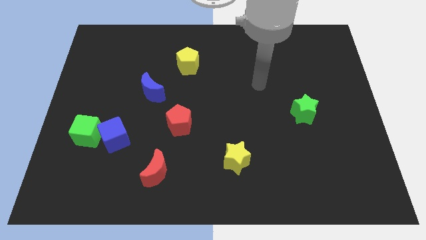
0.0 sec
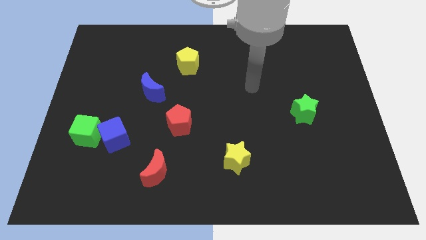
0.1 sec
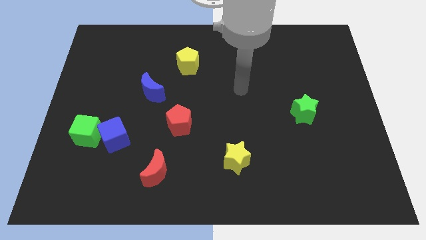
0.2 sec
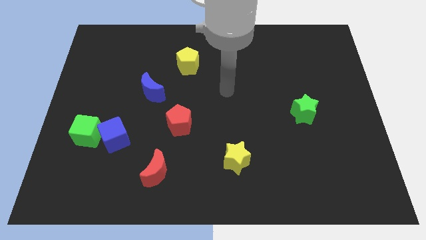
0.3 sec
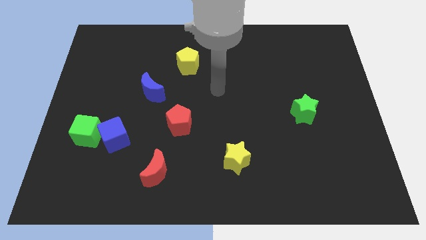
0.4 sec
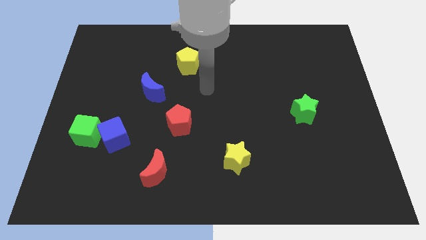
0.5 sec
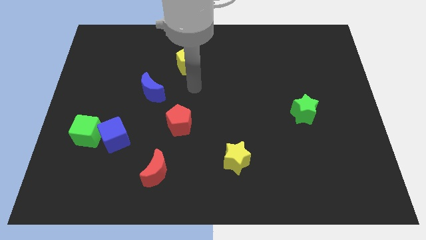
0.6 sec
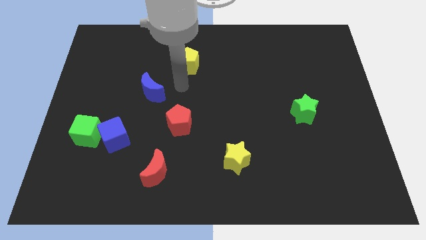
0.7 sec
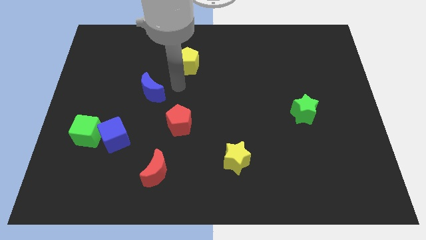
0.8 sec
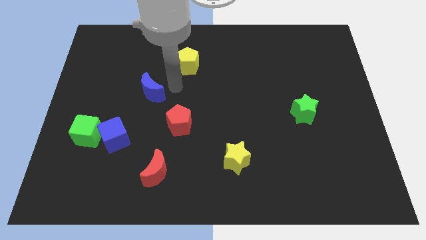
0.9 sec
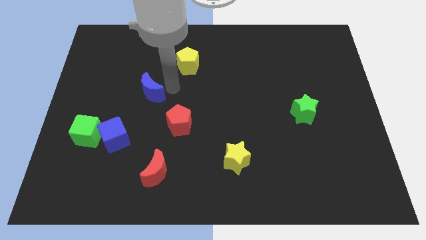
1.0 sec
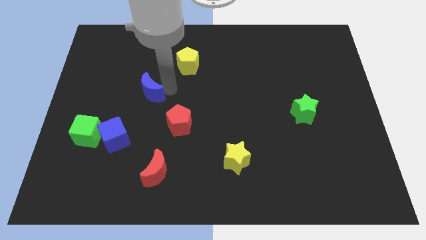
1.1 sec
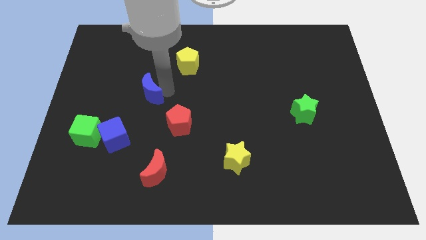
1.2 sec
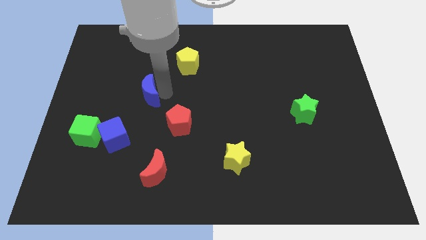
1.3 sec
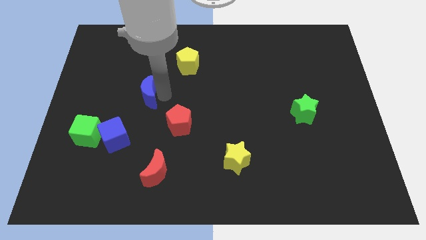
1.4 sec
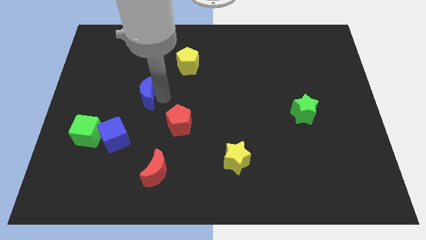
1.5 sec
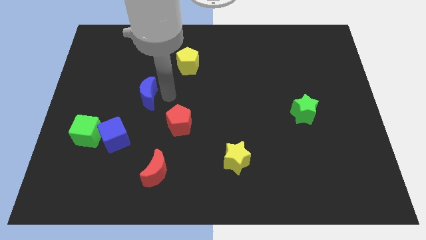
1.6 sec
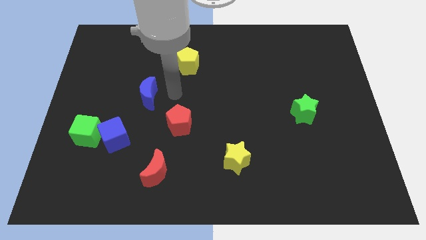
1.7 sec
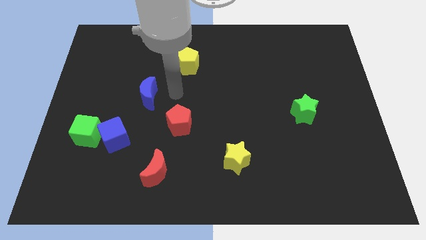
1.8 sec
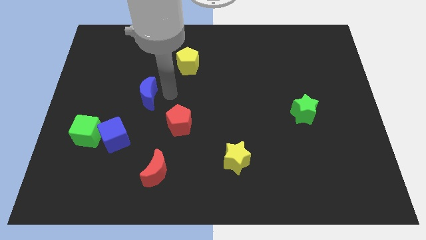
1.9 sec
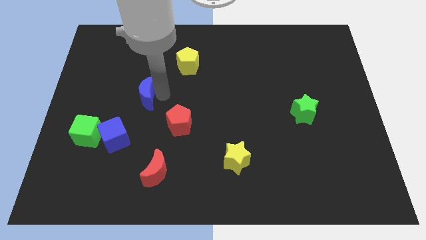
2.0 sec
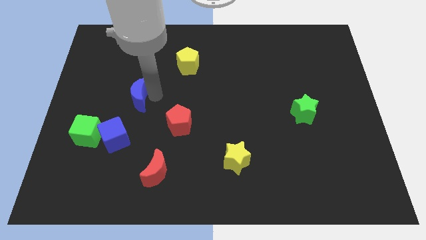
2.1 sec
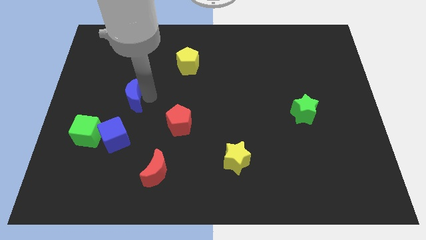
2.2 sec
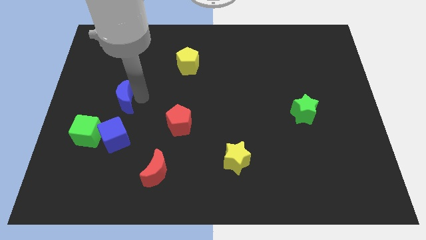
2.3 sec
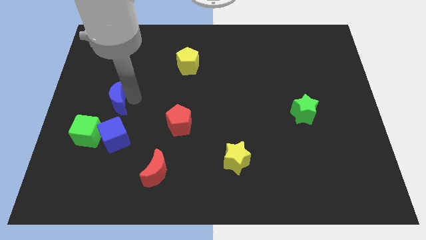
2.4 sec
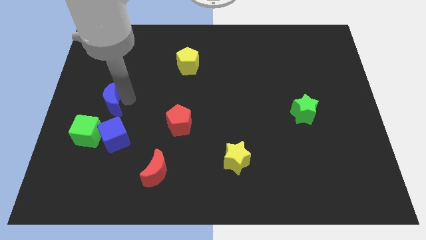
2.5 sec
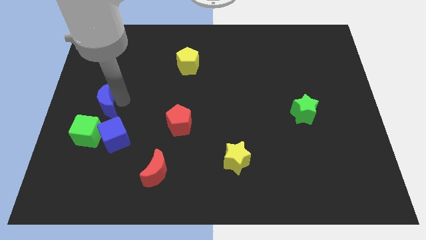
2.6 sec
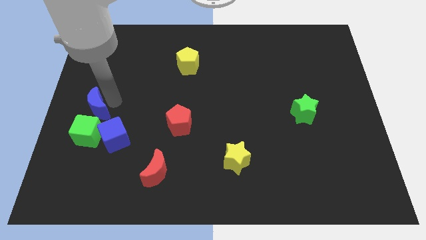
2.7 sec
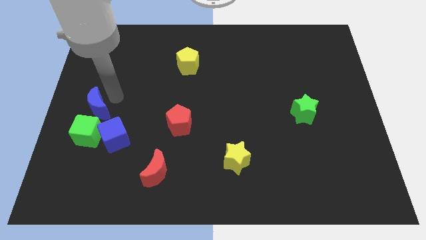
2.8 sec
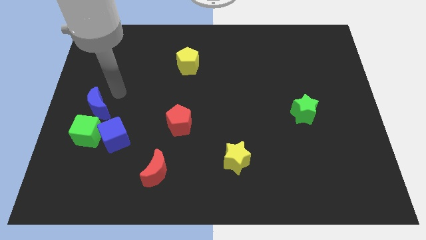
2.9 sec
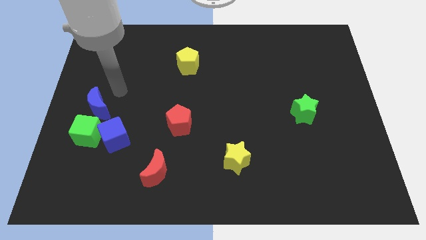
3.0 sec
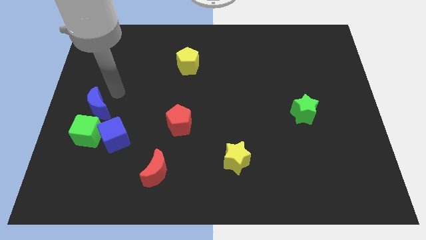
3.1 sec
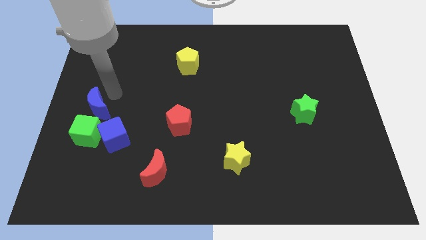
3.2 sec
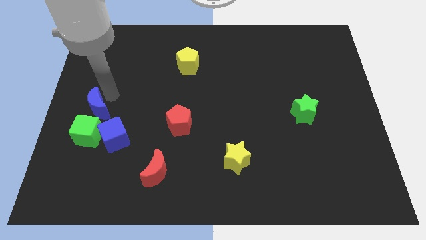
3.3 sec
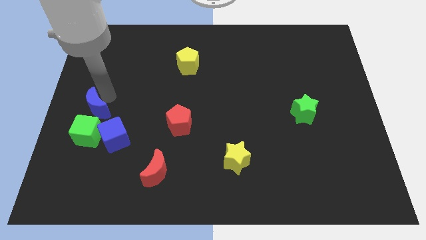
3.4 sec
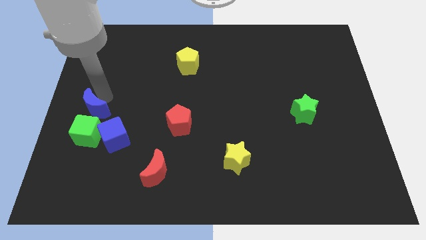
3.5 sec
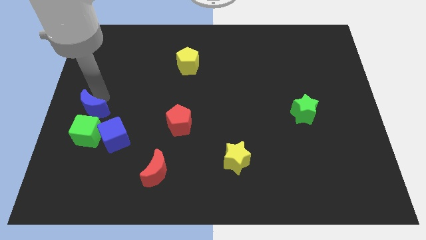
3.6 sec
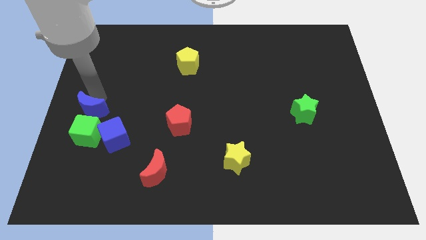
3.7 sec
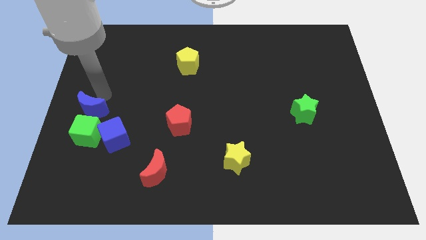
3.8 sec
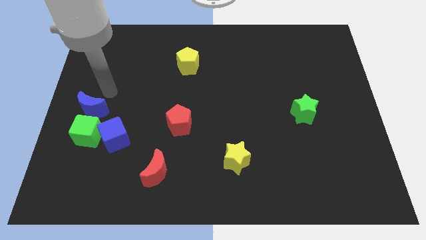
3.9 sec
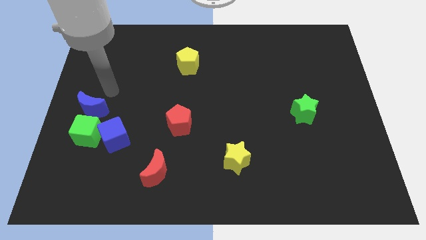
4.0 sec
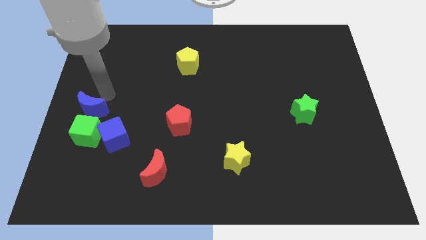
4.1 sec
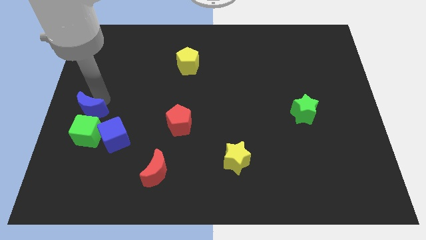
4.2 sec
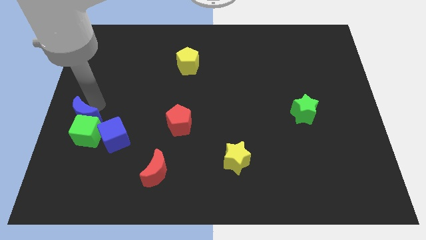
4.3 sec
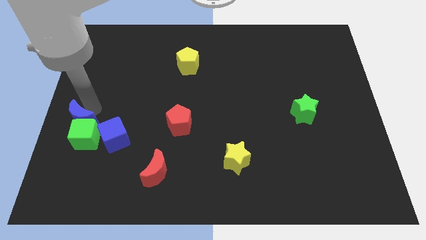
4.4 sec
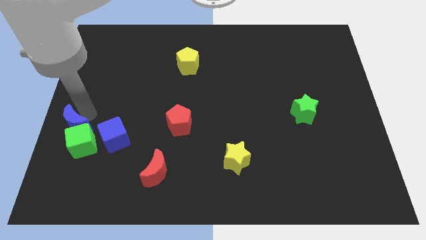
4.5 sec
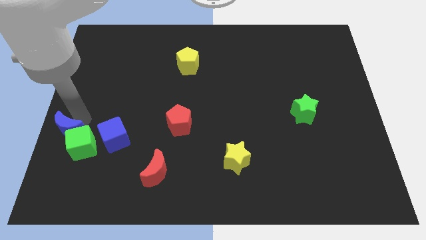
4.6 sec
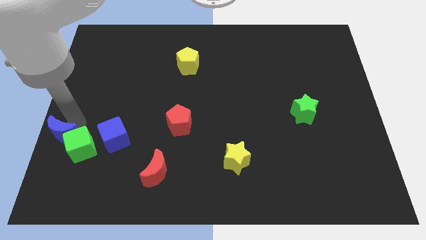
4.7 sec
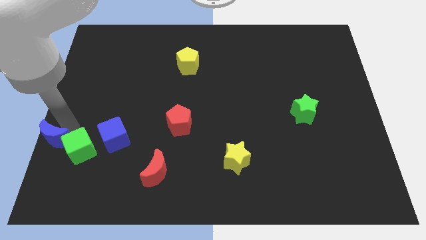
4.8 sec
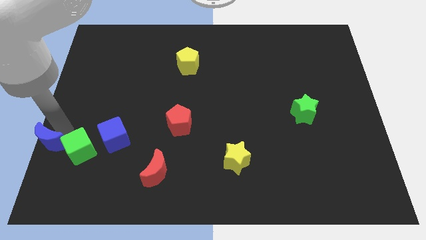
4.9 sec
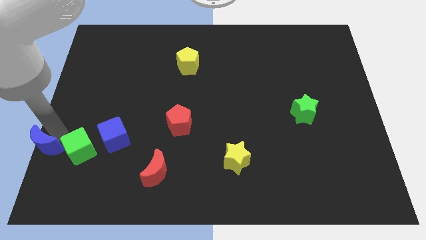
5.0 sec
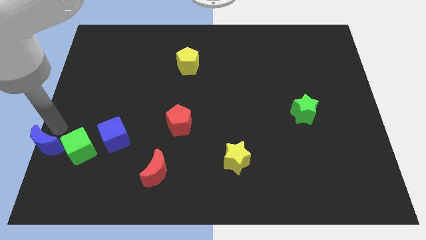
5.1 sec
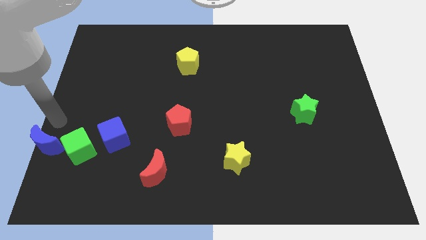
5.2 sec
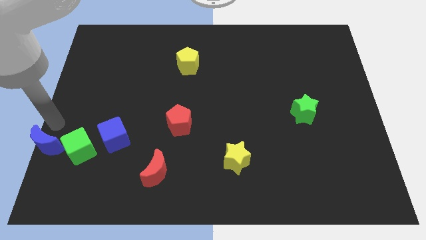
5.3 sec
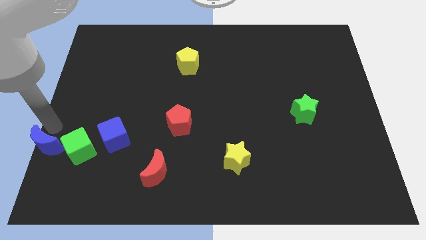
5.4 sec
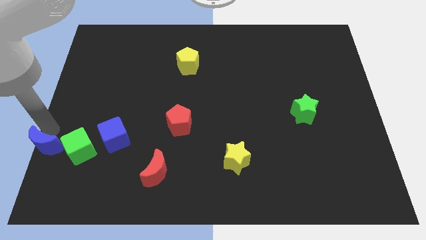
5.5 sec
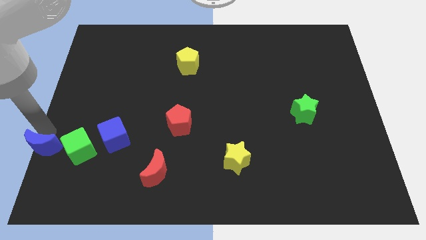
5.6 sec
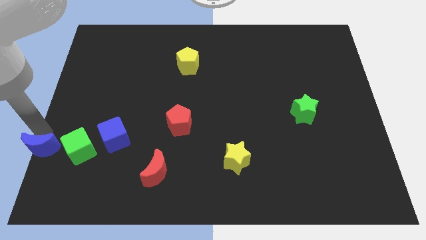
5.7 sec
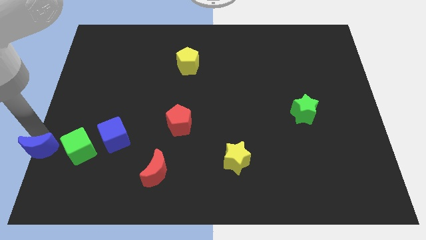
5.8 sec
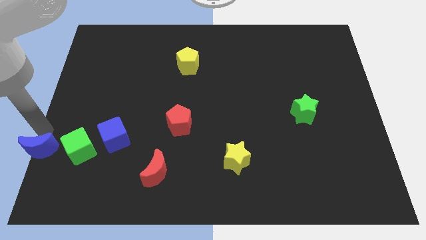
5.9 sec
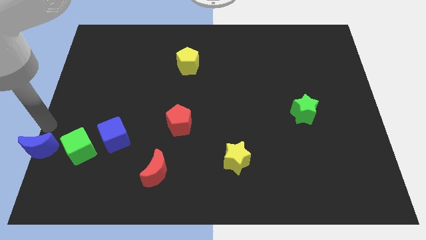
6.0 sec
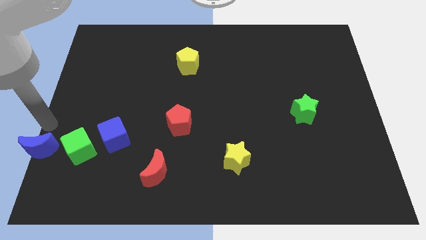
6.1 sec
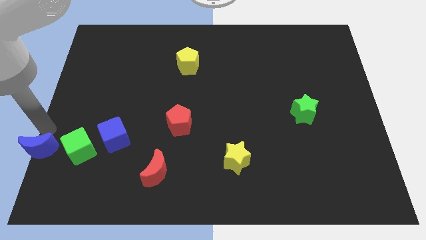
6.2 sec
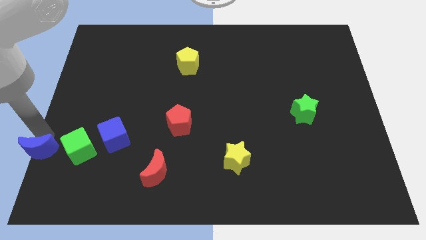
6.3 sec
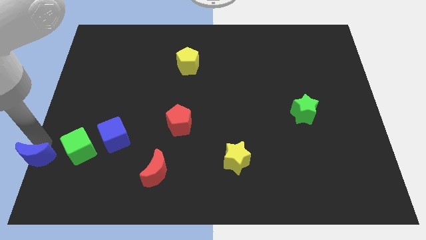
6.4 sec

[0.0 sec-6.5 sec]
push the blue moon to the bottom left corner

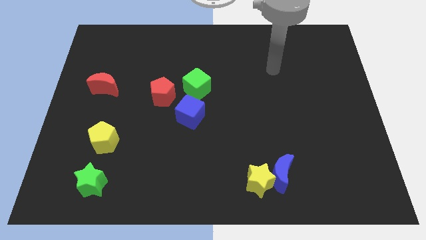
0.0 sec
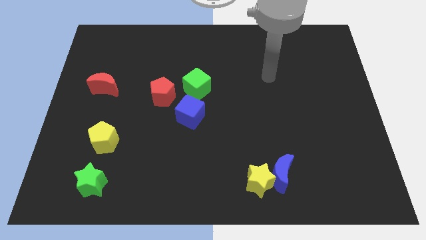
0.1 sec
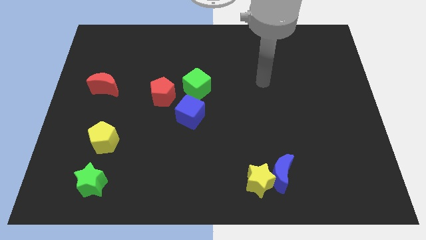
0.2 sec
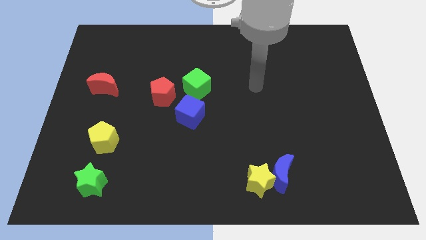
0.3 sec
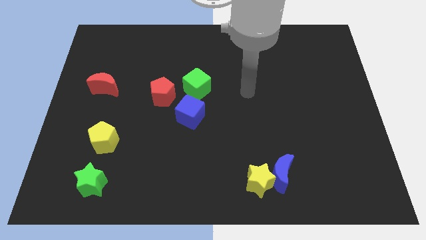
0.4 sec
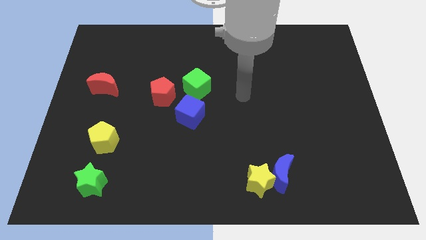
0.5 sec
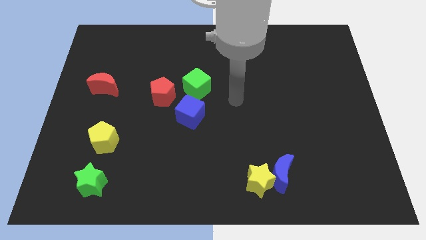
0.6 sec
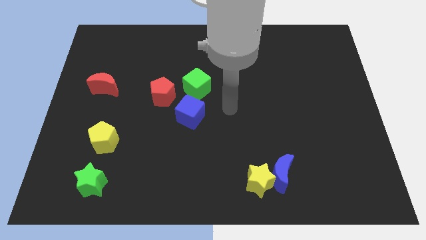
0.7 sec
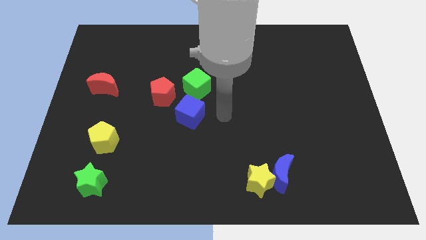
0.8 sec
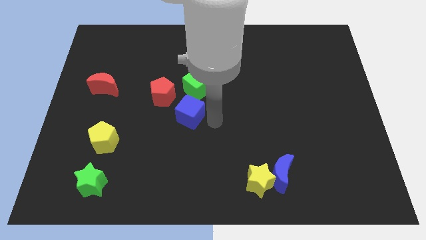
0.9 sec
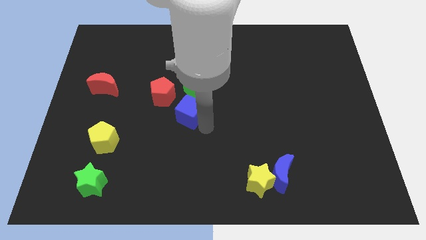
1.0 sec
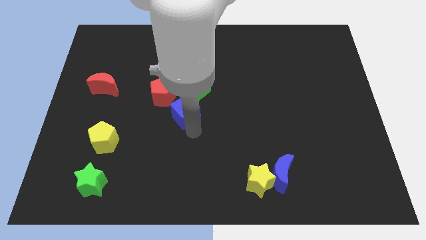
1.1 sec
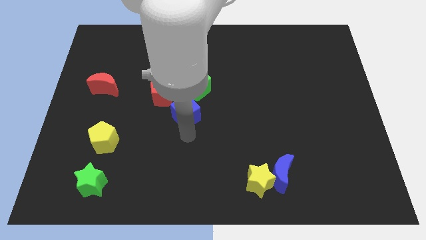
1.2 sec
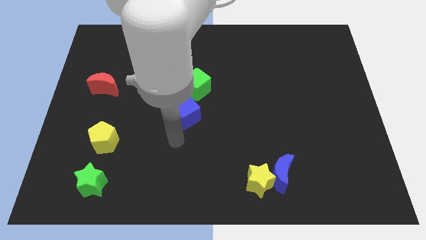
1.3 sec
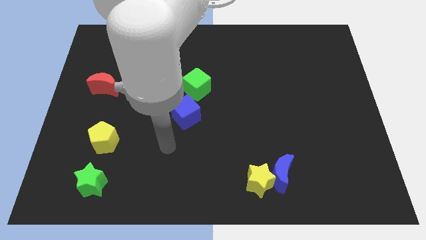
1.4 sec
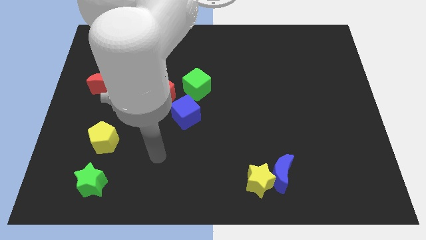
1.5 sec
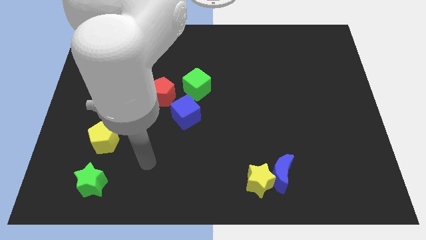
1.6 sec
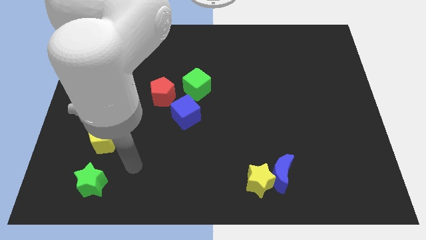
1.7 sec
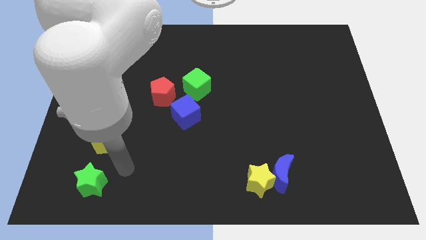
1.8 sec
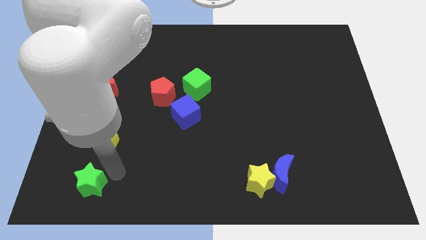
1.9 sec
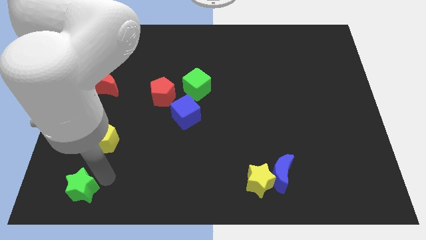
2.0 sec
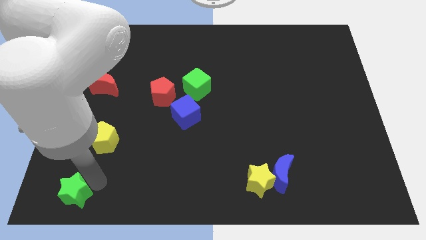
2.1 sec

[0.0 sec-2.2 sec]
move the green star to the bottom left
